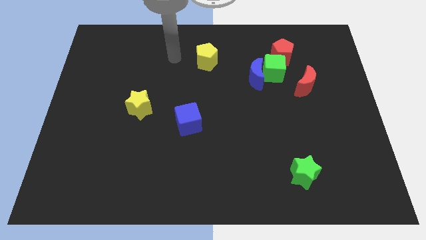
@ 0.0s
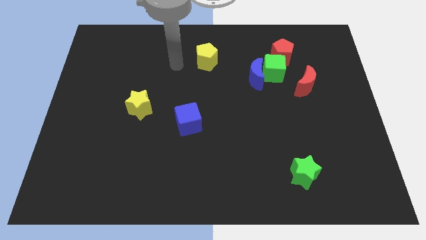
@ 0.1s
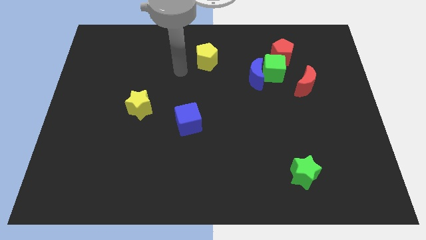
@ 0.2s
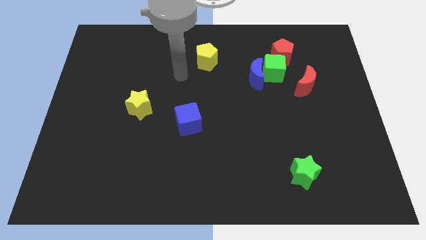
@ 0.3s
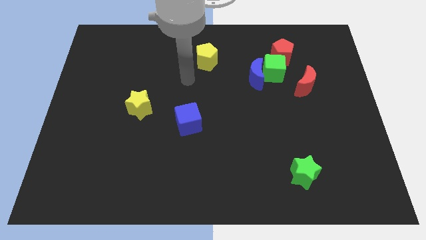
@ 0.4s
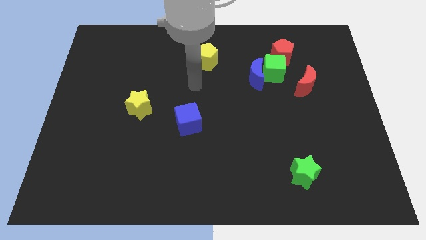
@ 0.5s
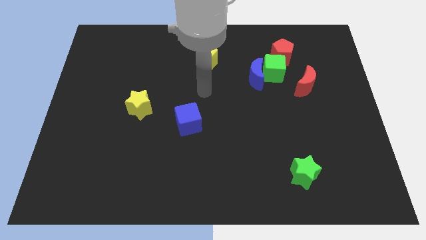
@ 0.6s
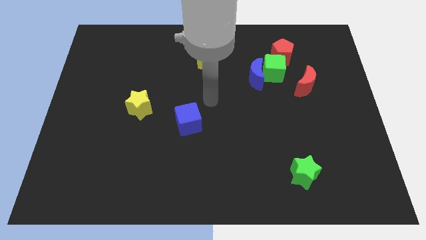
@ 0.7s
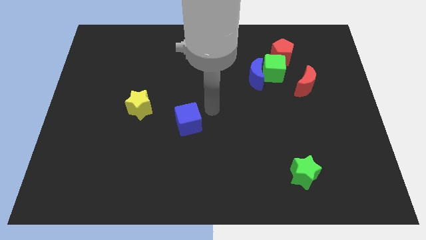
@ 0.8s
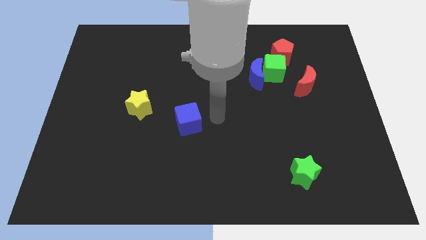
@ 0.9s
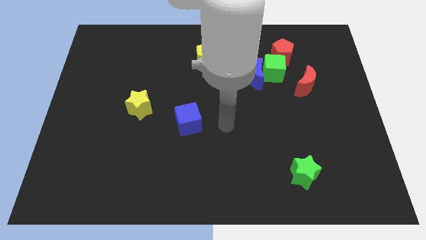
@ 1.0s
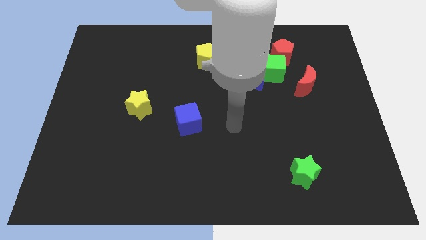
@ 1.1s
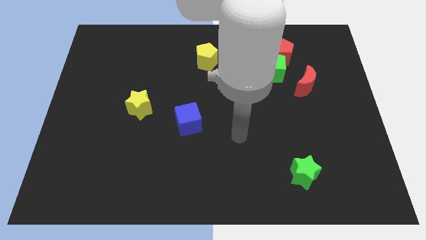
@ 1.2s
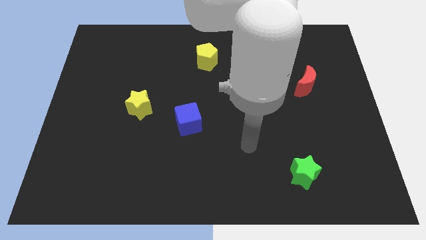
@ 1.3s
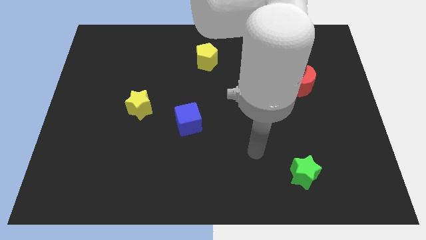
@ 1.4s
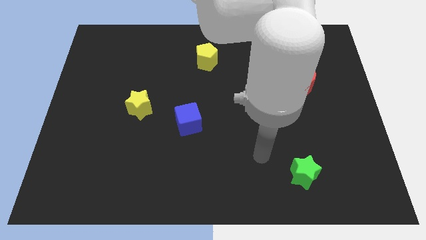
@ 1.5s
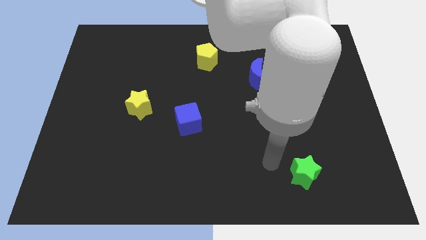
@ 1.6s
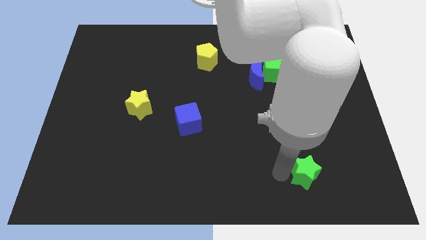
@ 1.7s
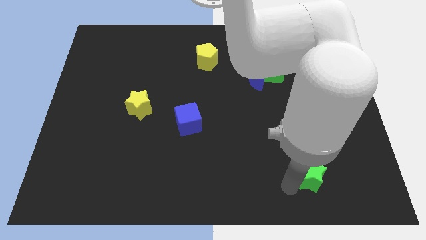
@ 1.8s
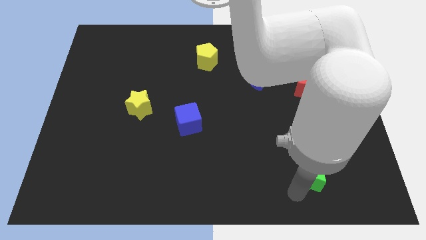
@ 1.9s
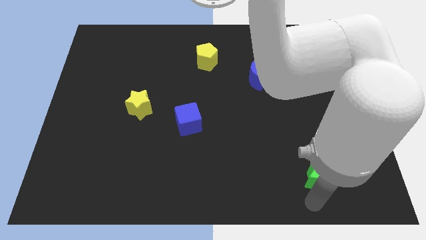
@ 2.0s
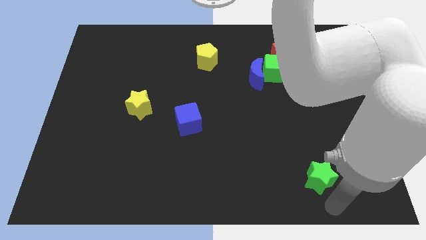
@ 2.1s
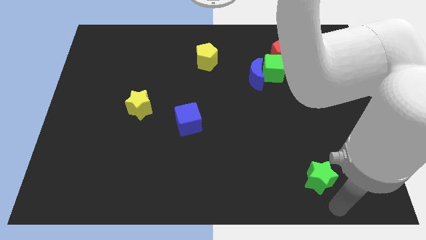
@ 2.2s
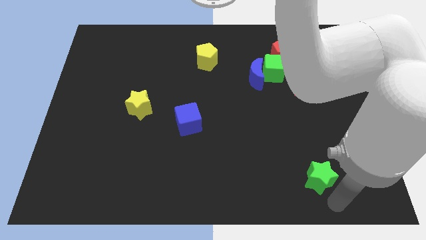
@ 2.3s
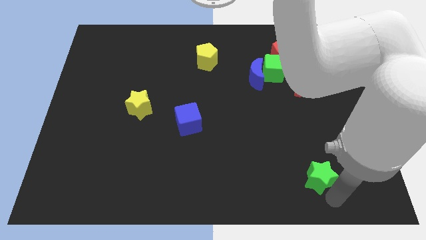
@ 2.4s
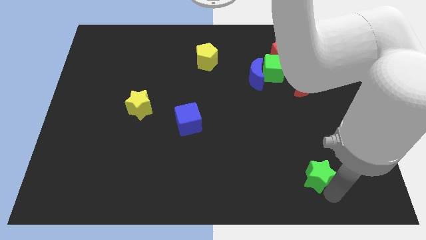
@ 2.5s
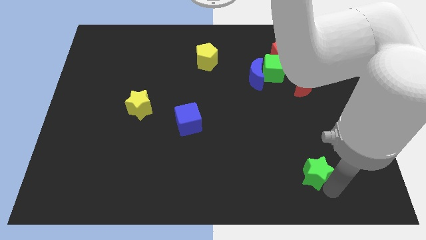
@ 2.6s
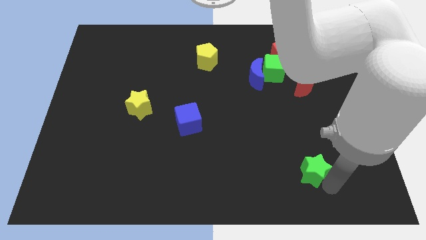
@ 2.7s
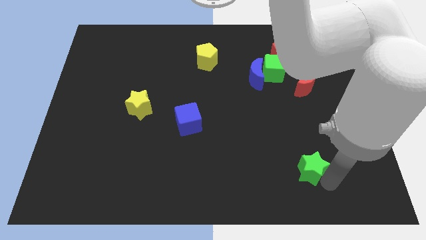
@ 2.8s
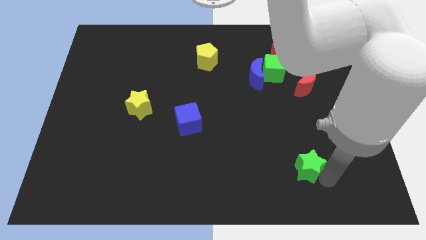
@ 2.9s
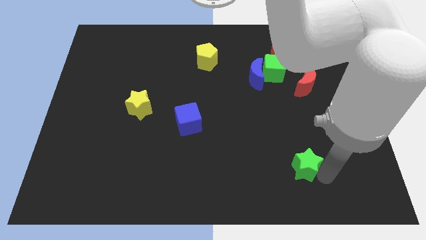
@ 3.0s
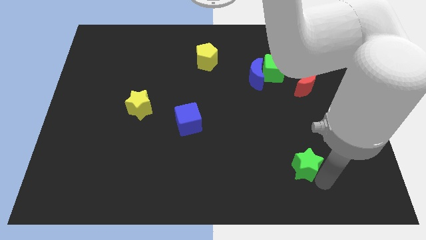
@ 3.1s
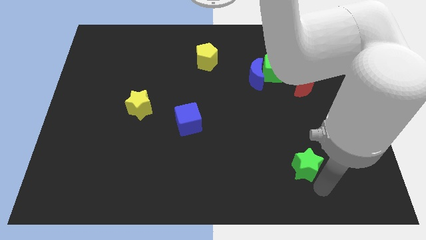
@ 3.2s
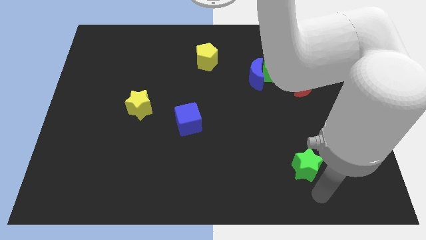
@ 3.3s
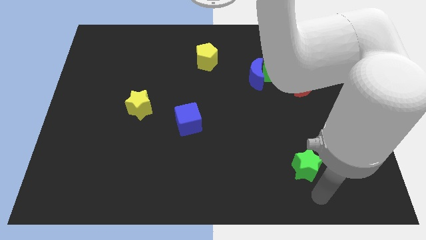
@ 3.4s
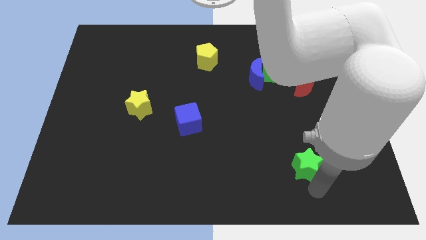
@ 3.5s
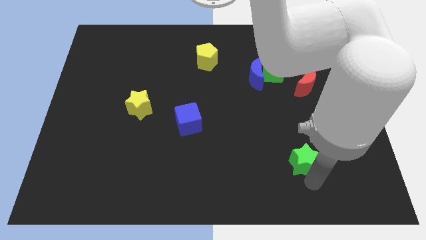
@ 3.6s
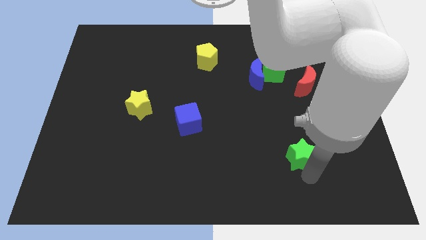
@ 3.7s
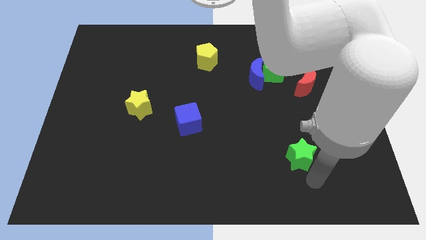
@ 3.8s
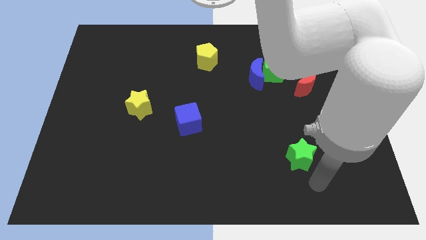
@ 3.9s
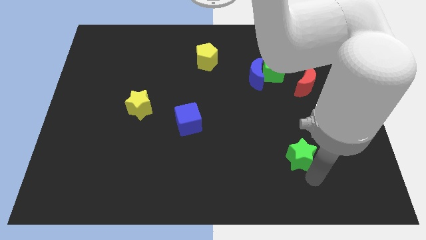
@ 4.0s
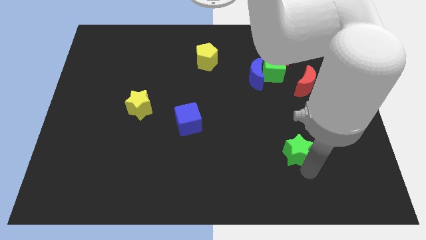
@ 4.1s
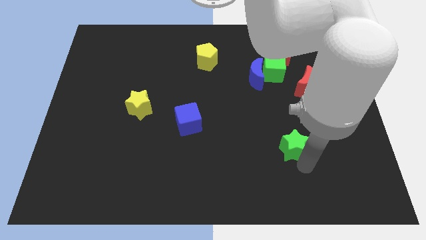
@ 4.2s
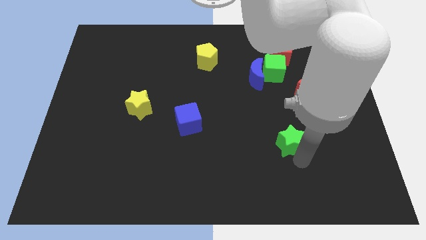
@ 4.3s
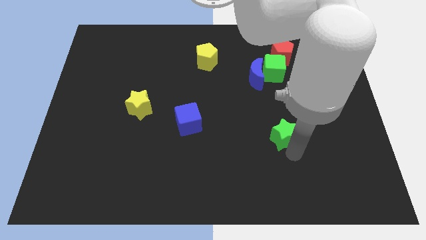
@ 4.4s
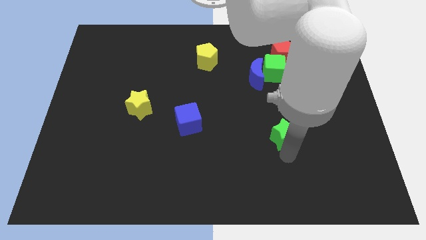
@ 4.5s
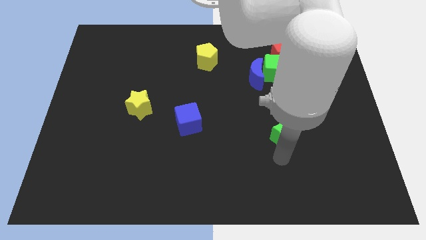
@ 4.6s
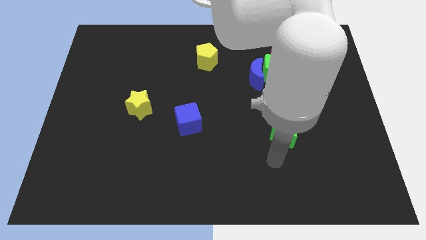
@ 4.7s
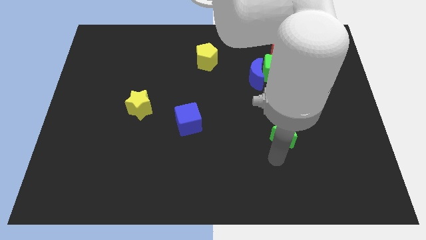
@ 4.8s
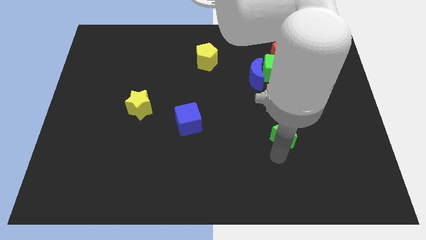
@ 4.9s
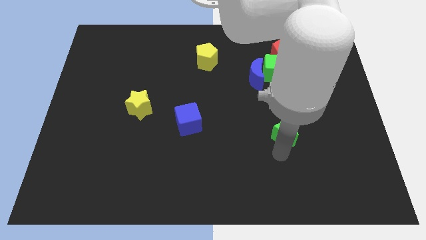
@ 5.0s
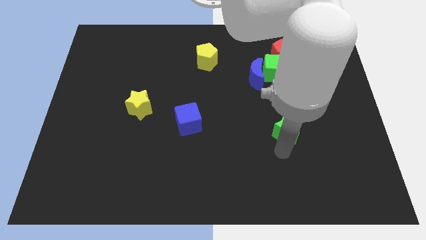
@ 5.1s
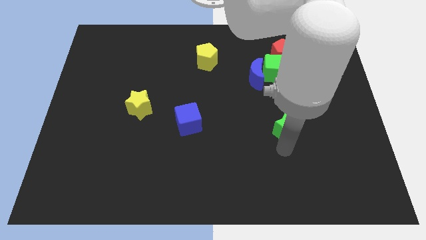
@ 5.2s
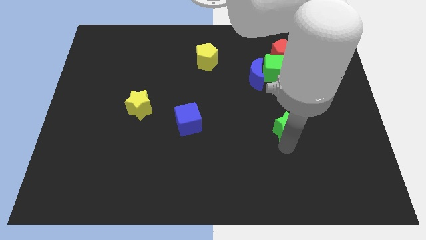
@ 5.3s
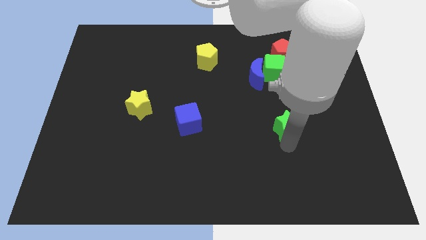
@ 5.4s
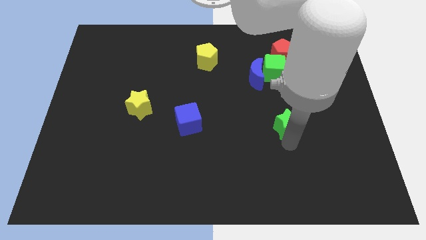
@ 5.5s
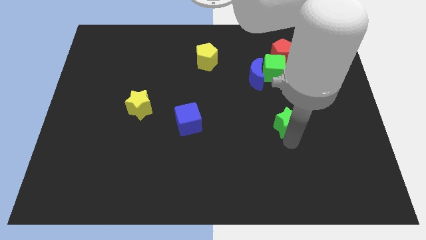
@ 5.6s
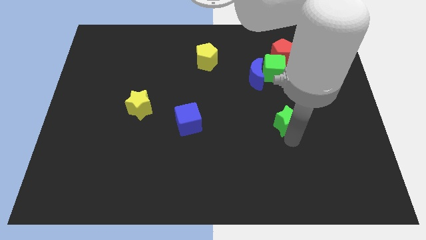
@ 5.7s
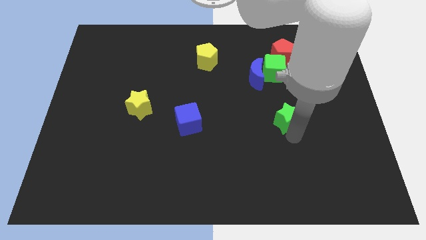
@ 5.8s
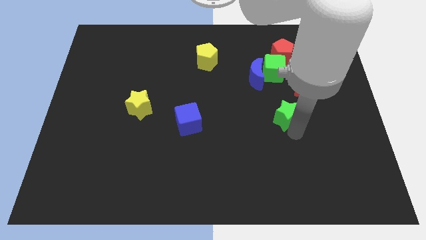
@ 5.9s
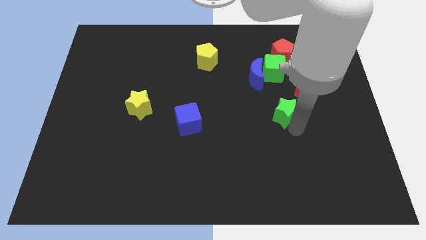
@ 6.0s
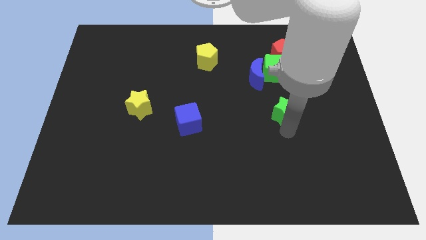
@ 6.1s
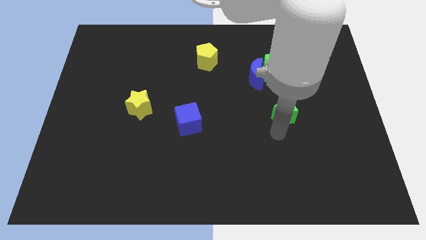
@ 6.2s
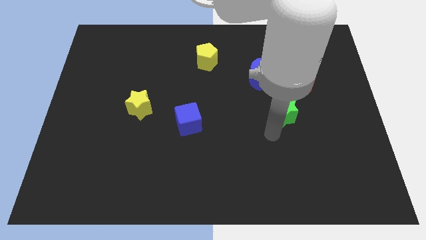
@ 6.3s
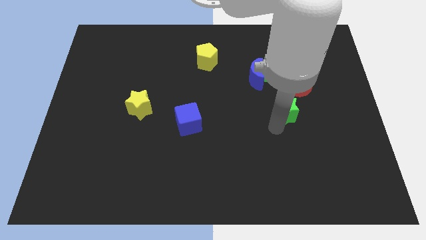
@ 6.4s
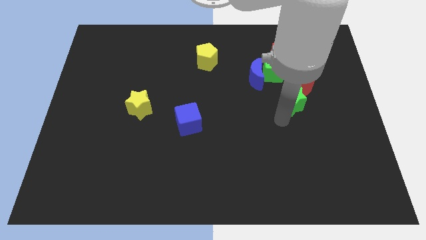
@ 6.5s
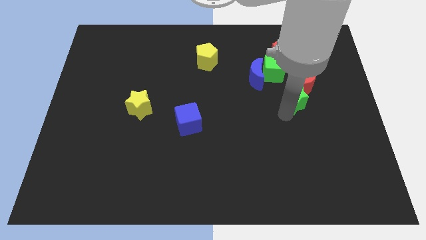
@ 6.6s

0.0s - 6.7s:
move the green star to the red moon

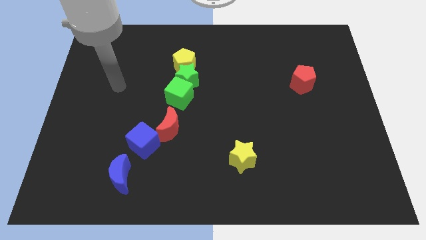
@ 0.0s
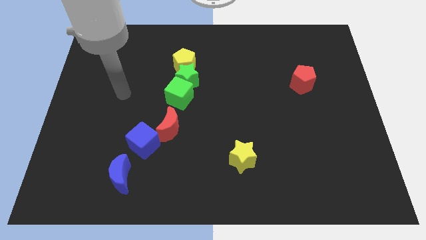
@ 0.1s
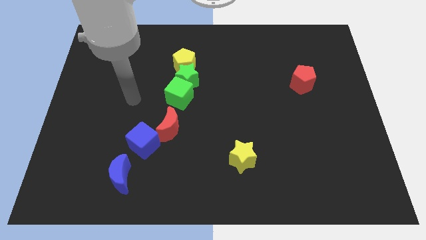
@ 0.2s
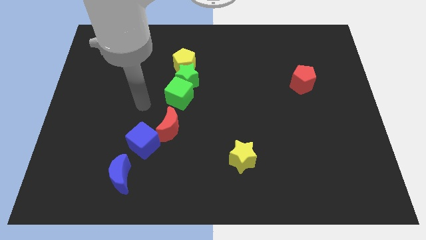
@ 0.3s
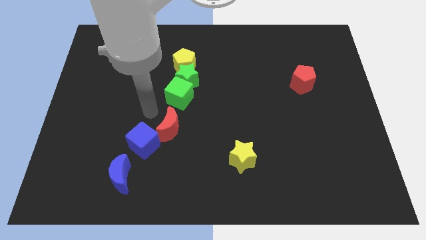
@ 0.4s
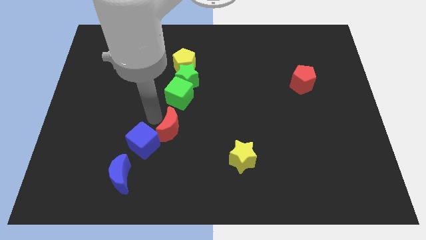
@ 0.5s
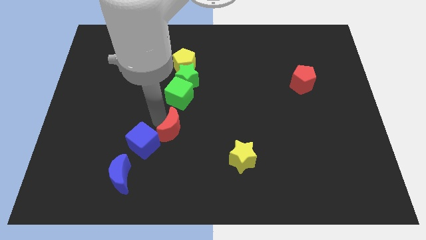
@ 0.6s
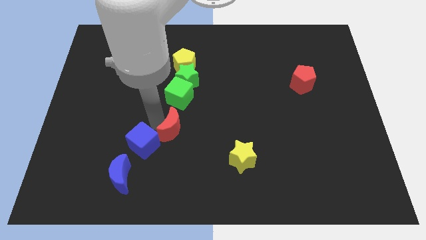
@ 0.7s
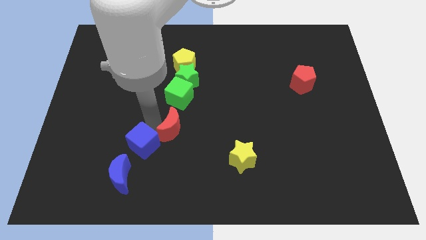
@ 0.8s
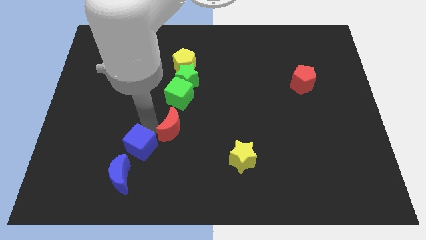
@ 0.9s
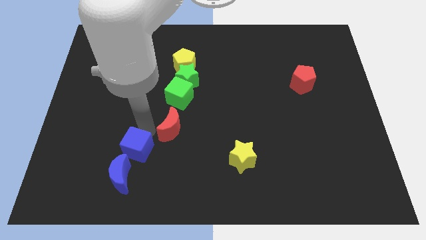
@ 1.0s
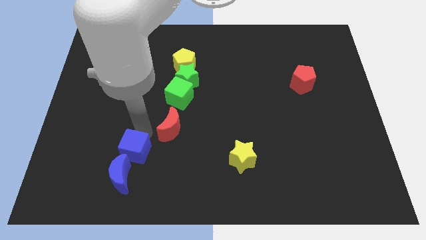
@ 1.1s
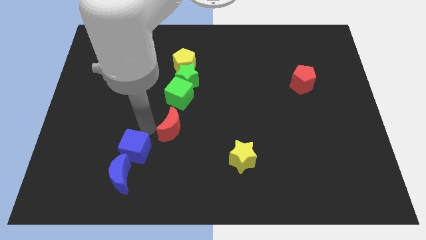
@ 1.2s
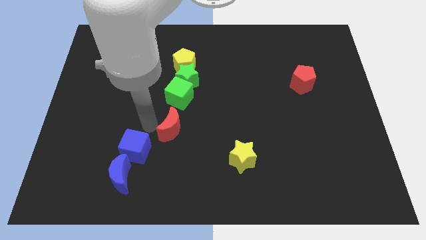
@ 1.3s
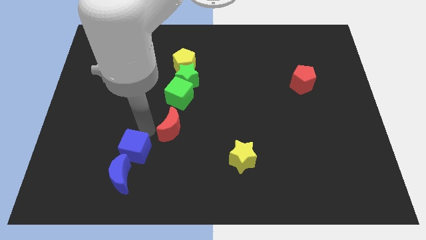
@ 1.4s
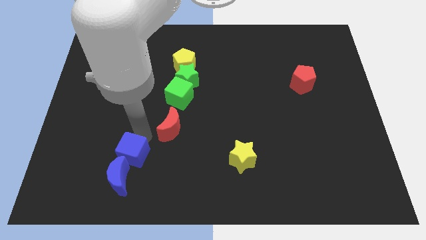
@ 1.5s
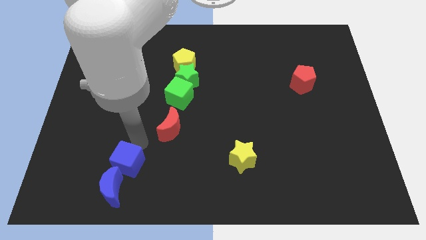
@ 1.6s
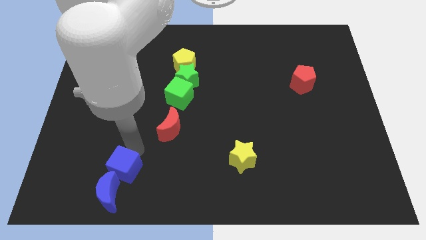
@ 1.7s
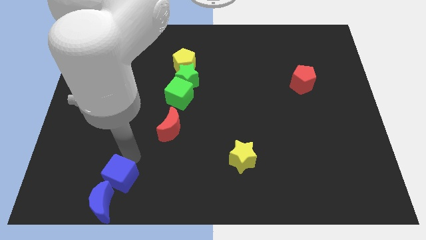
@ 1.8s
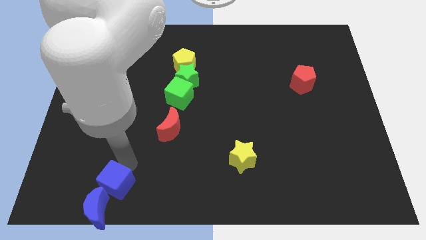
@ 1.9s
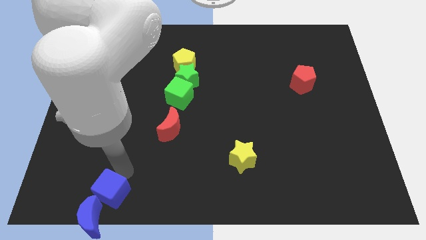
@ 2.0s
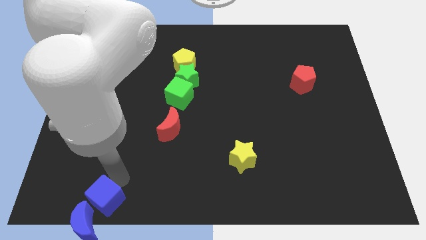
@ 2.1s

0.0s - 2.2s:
slide the blue cube towards the blue moon
